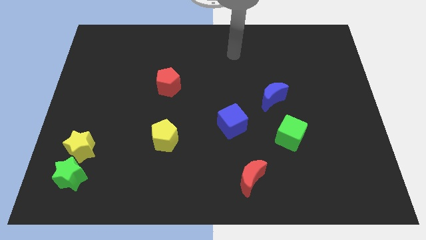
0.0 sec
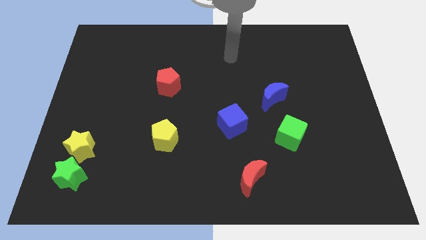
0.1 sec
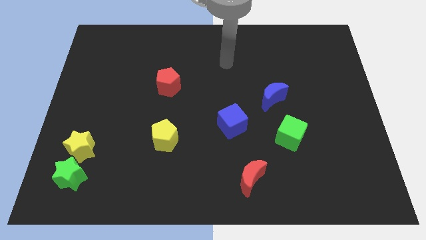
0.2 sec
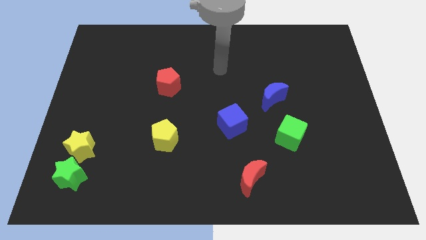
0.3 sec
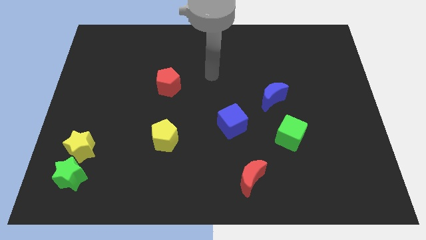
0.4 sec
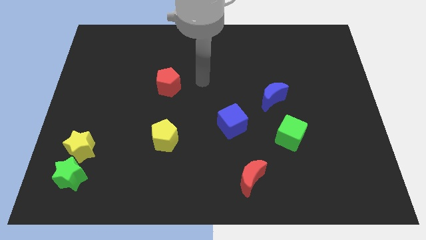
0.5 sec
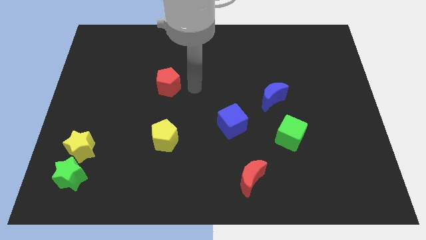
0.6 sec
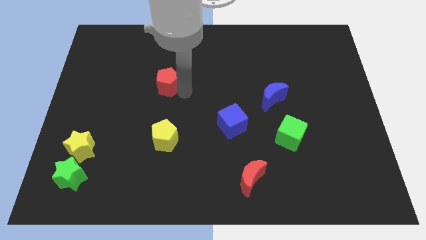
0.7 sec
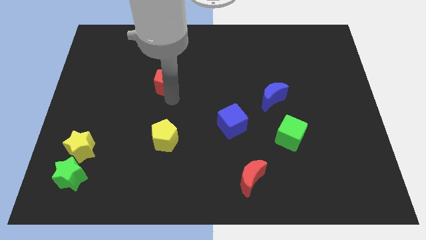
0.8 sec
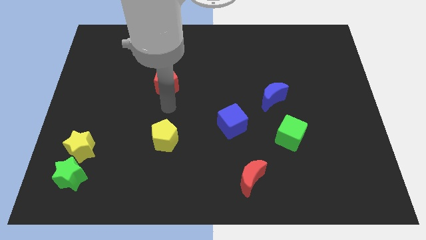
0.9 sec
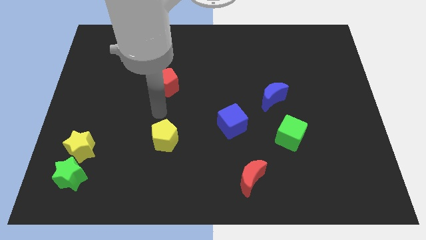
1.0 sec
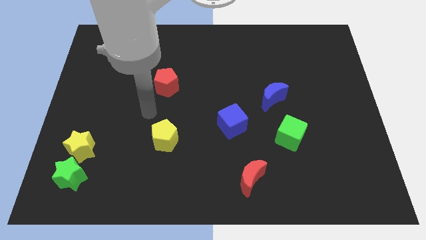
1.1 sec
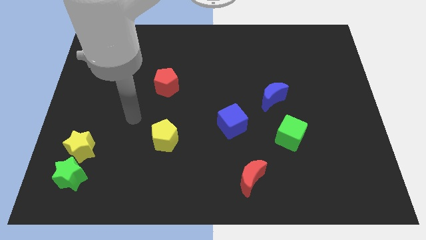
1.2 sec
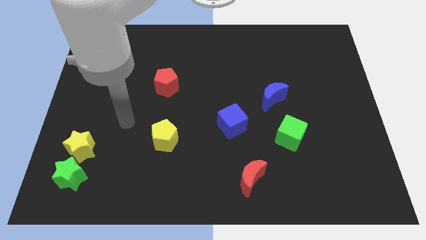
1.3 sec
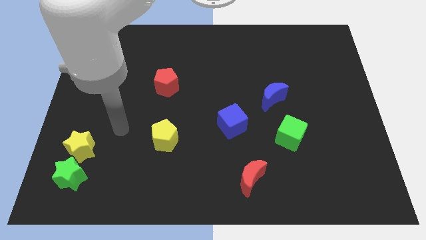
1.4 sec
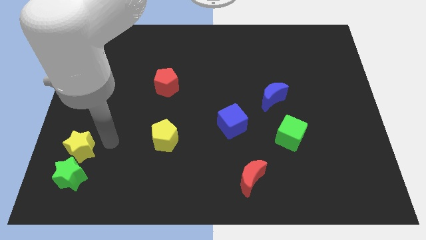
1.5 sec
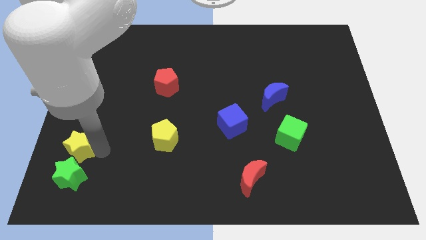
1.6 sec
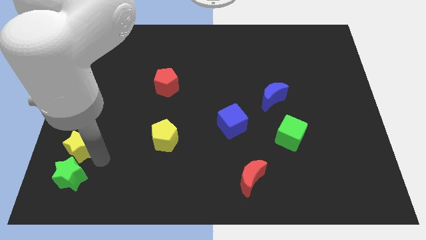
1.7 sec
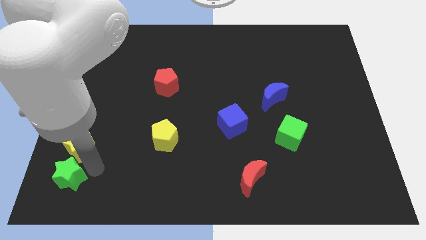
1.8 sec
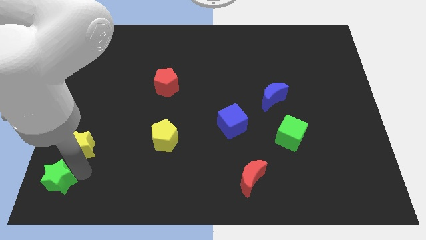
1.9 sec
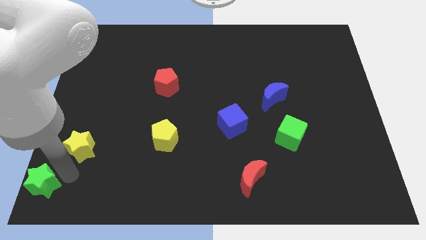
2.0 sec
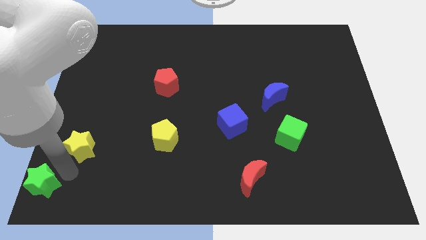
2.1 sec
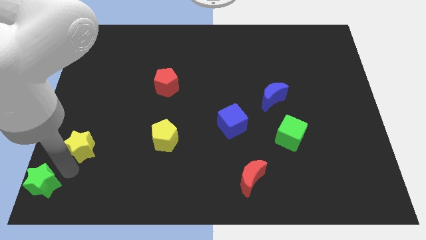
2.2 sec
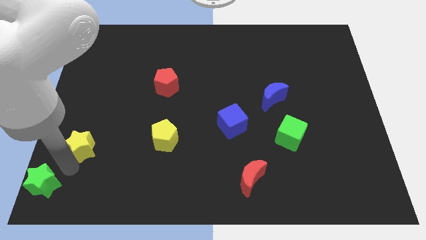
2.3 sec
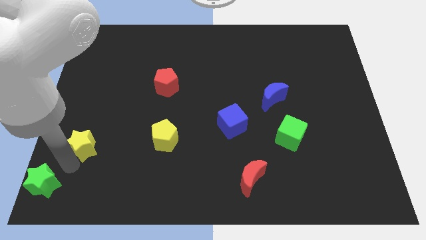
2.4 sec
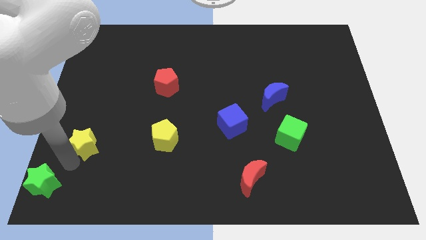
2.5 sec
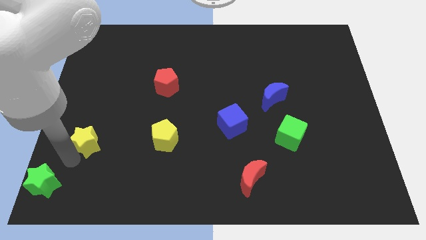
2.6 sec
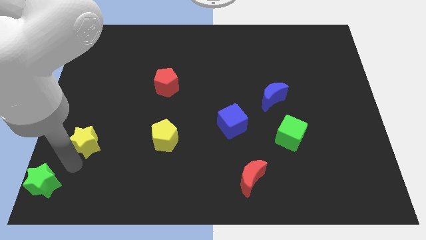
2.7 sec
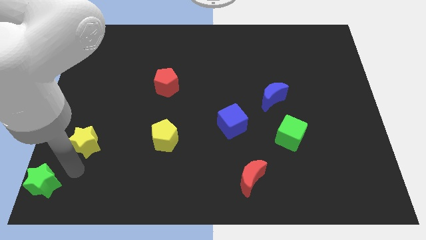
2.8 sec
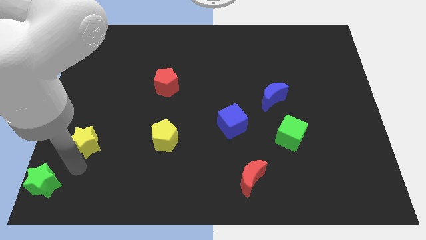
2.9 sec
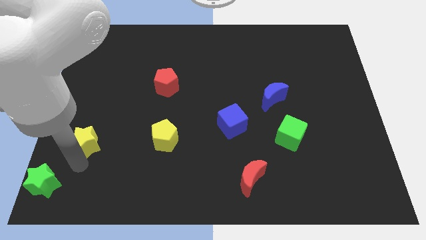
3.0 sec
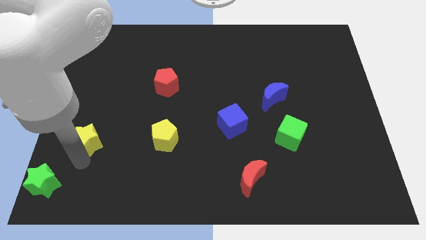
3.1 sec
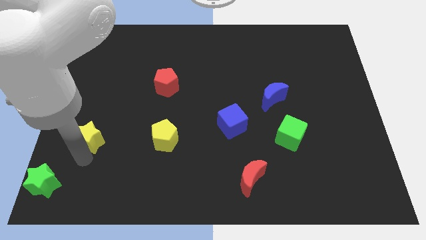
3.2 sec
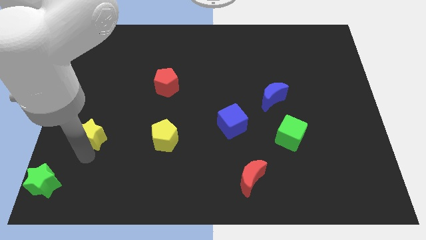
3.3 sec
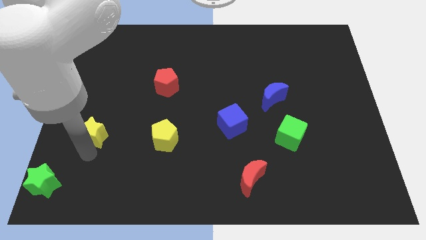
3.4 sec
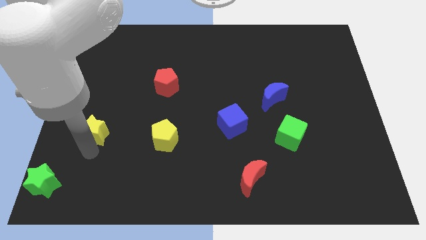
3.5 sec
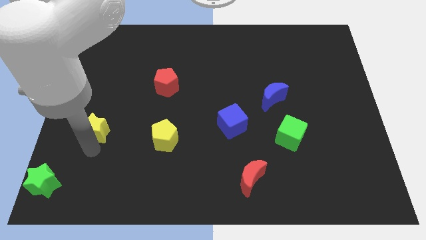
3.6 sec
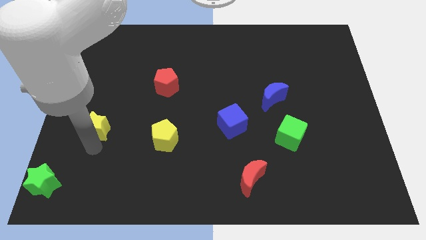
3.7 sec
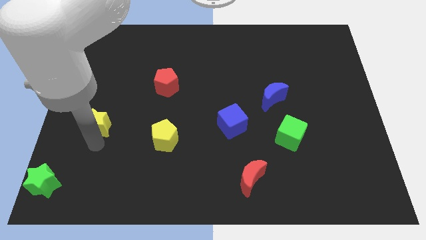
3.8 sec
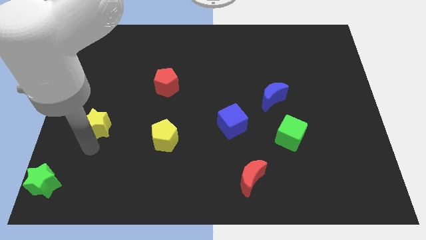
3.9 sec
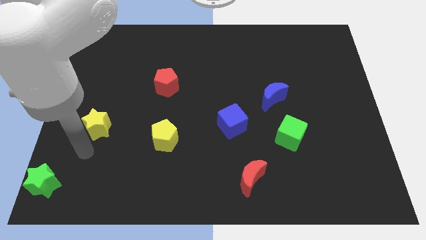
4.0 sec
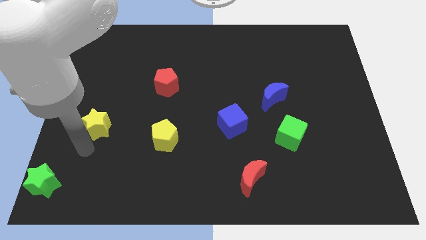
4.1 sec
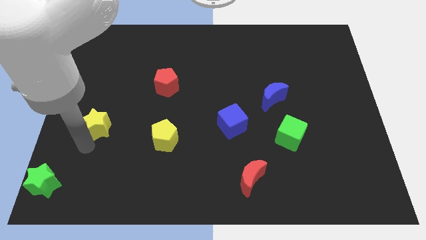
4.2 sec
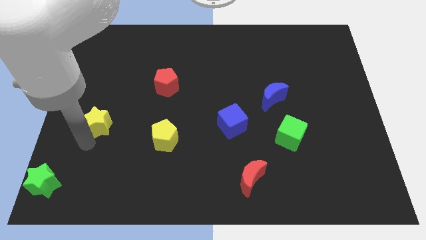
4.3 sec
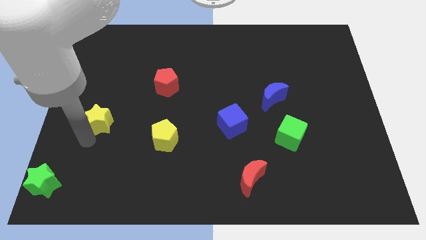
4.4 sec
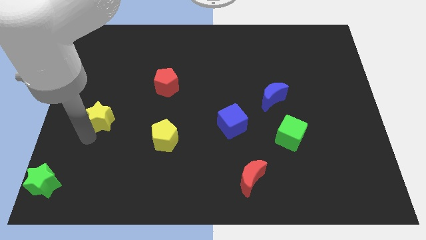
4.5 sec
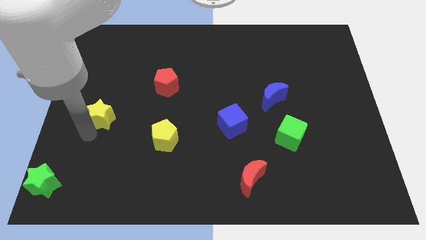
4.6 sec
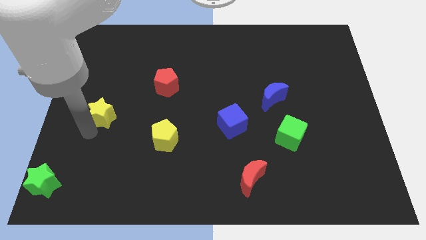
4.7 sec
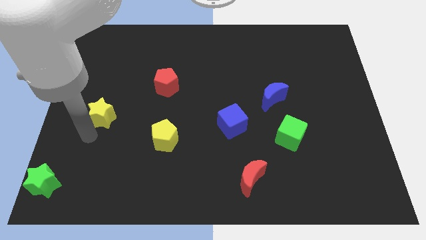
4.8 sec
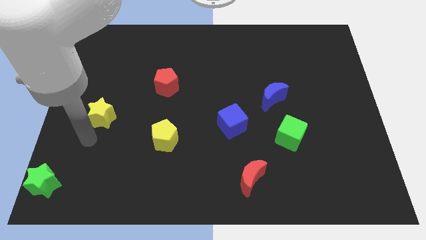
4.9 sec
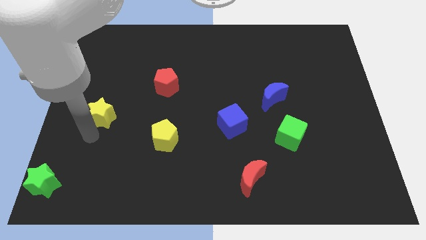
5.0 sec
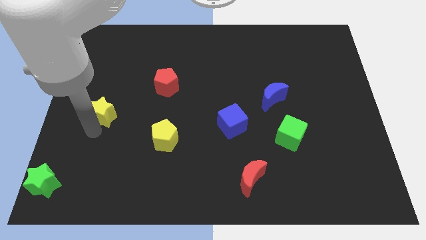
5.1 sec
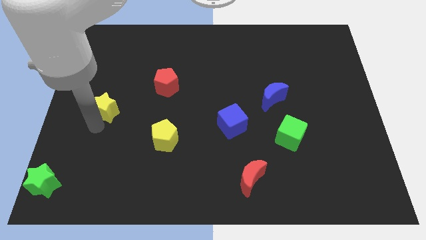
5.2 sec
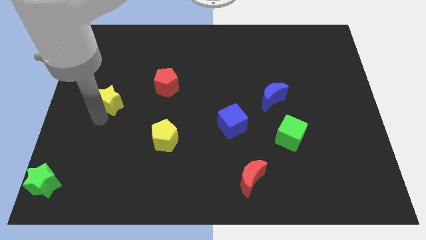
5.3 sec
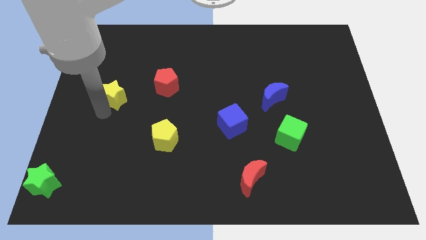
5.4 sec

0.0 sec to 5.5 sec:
slide the yellow star to the left side of the red pentagon

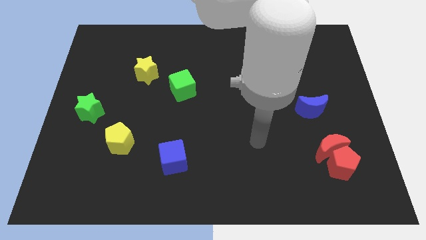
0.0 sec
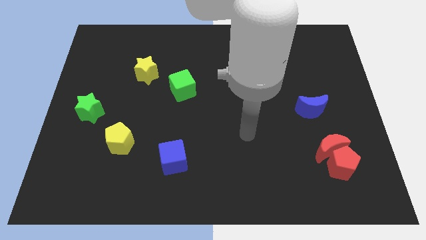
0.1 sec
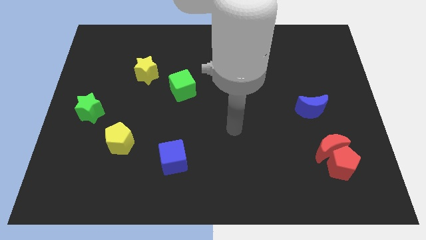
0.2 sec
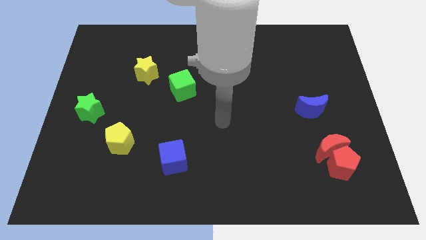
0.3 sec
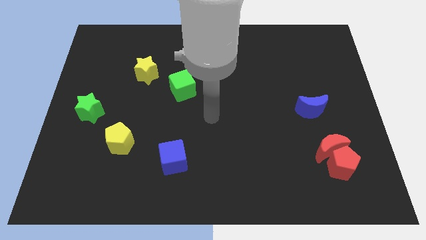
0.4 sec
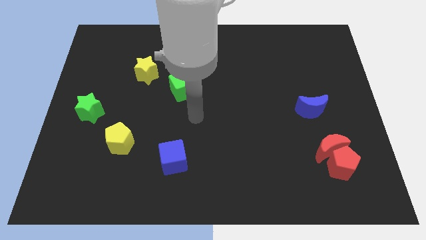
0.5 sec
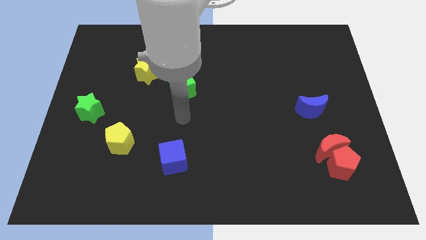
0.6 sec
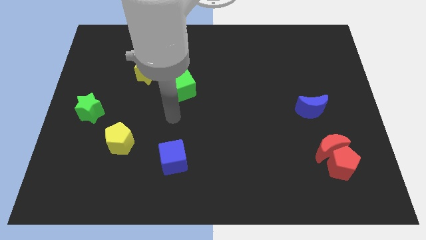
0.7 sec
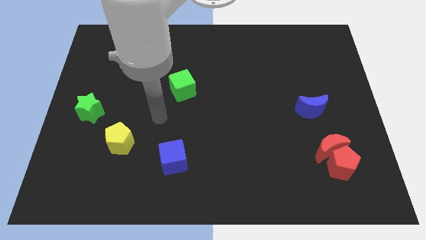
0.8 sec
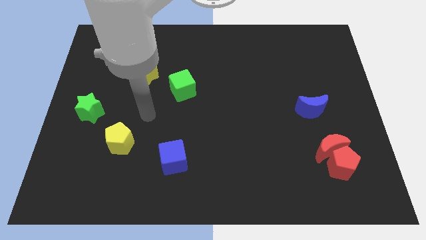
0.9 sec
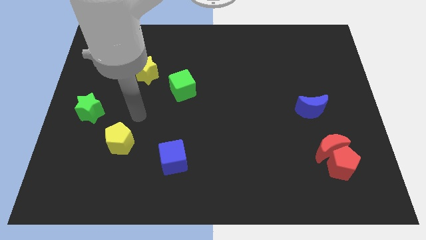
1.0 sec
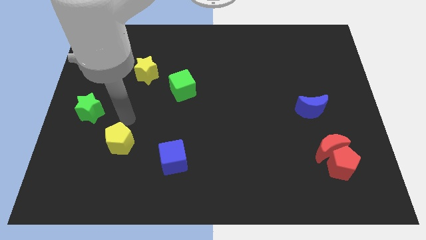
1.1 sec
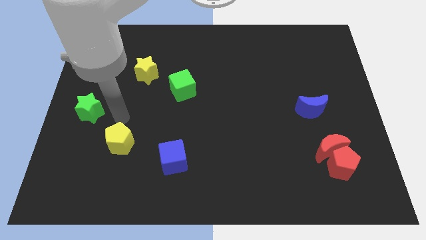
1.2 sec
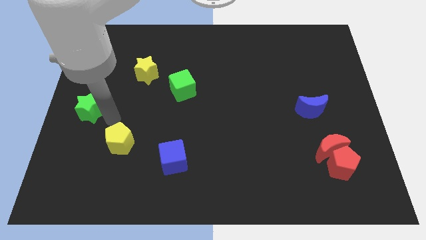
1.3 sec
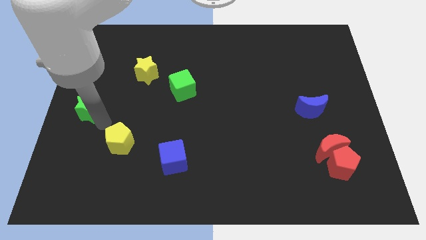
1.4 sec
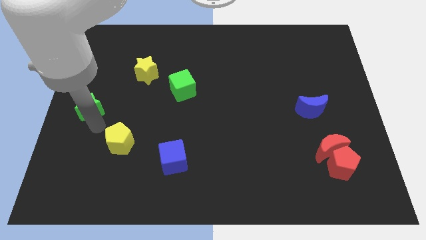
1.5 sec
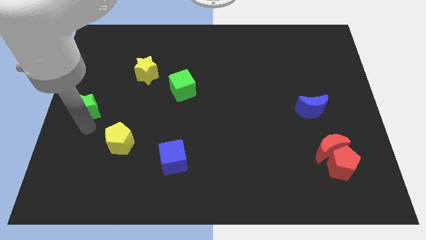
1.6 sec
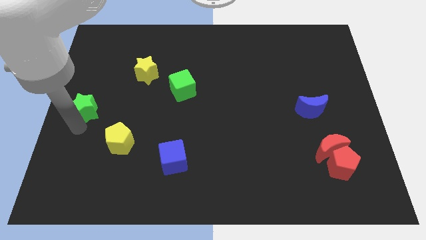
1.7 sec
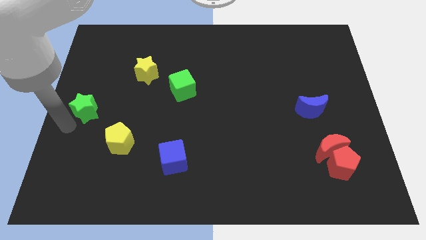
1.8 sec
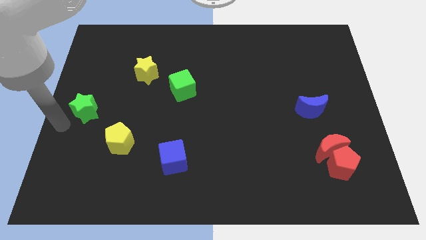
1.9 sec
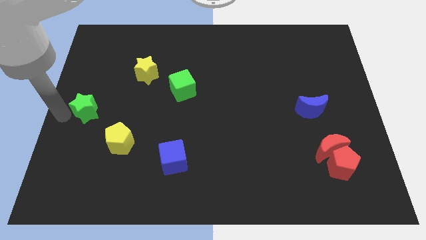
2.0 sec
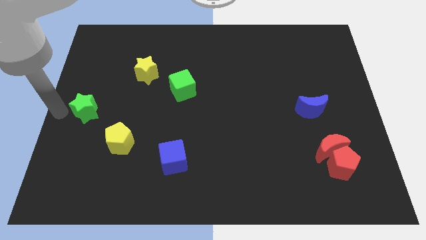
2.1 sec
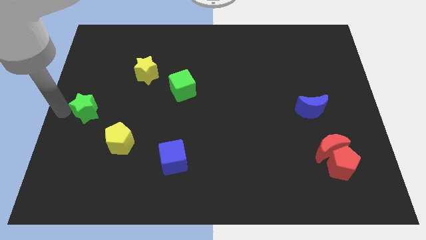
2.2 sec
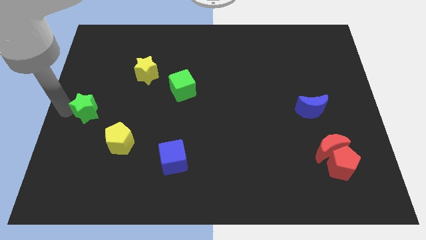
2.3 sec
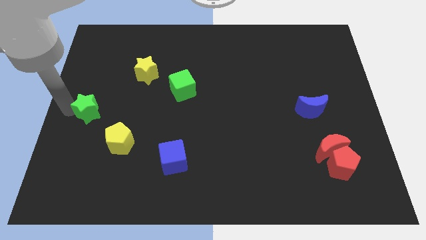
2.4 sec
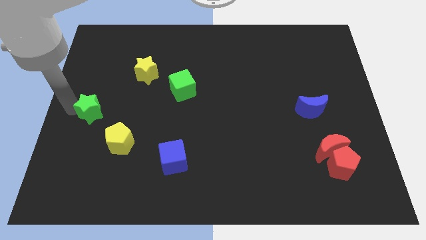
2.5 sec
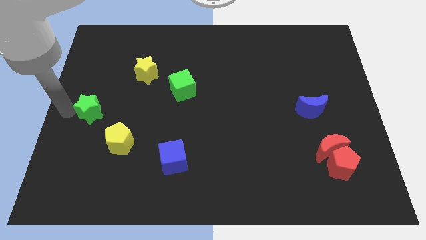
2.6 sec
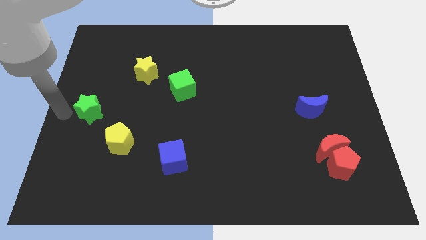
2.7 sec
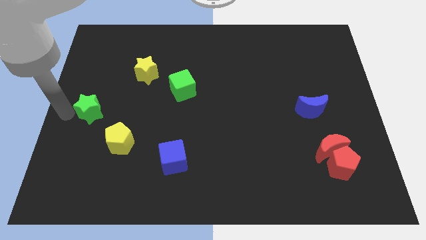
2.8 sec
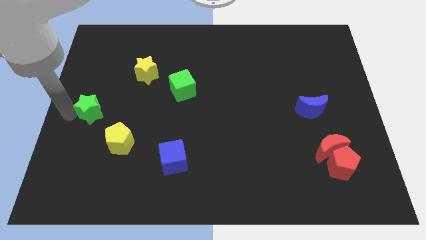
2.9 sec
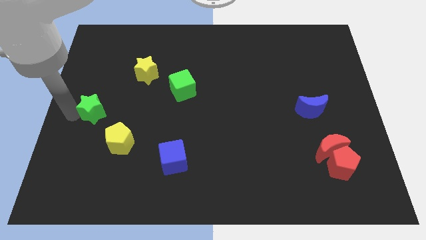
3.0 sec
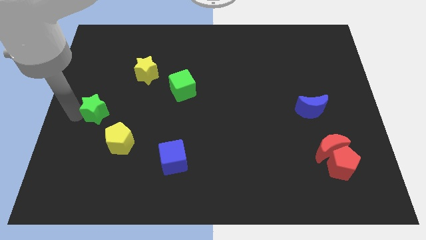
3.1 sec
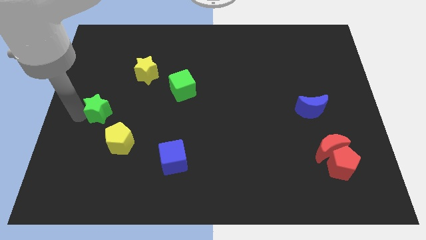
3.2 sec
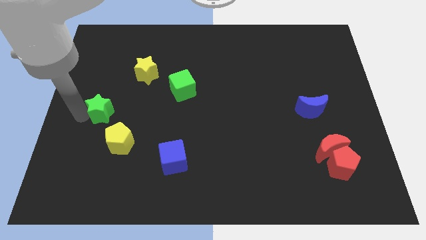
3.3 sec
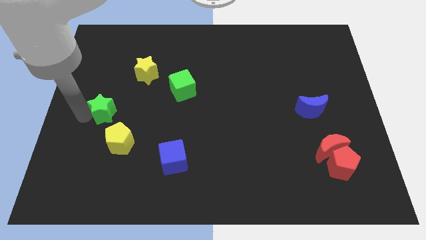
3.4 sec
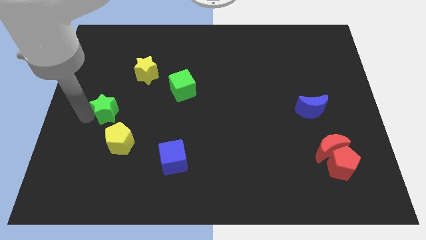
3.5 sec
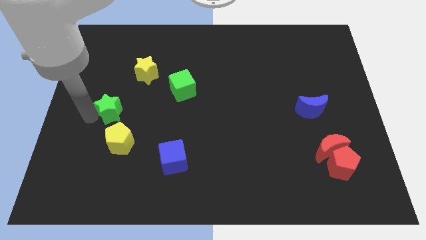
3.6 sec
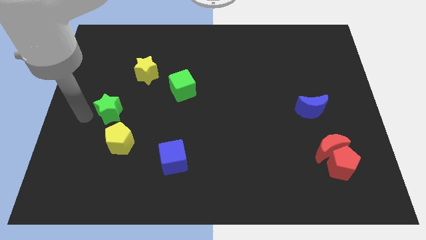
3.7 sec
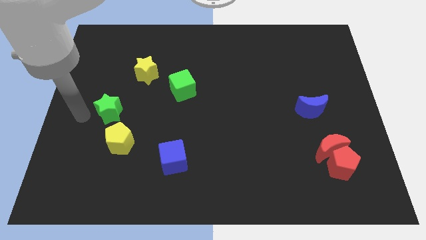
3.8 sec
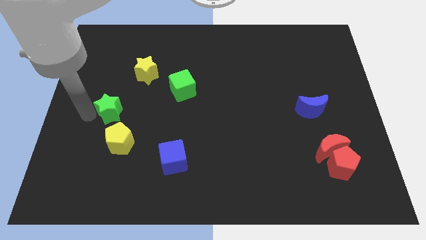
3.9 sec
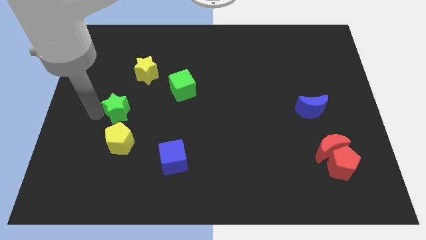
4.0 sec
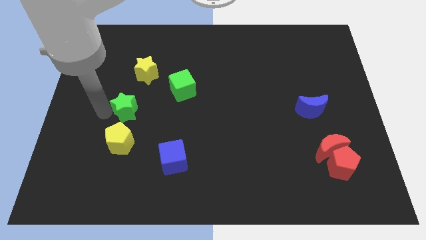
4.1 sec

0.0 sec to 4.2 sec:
move the green star to the bottom side of the yellow star
